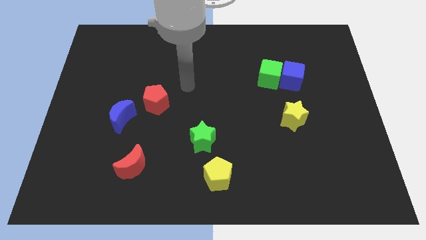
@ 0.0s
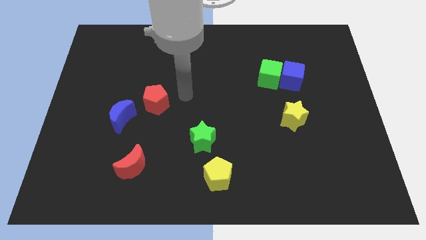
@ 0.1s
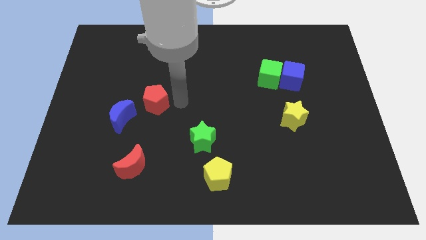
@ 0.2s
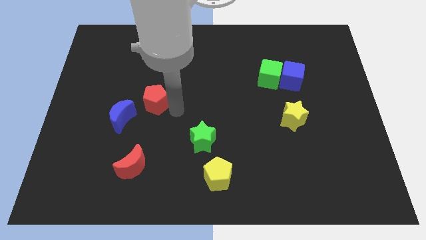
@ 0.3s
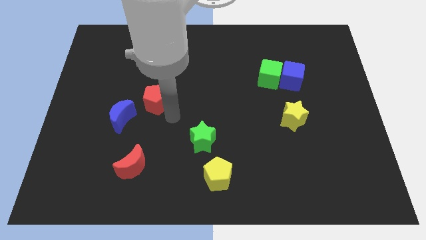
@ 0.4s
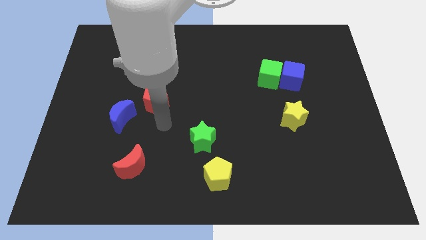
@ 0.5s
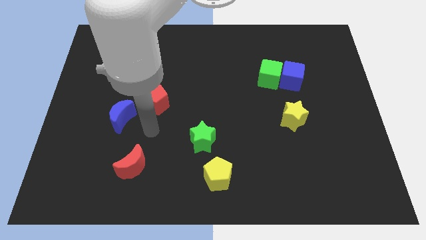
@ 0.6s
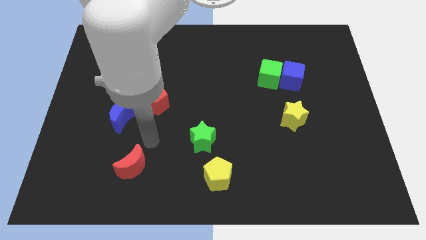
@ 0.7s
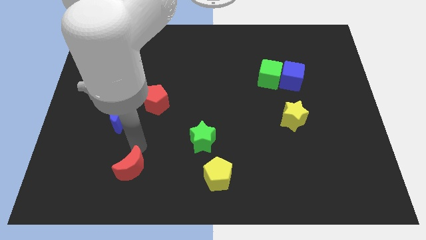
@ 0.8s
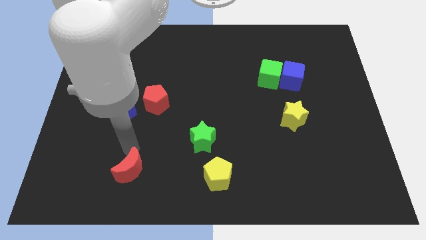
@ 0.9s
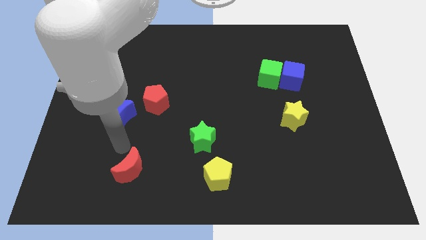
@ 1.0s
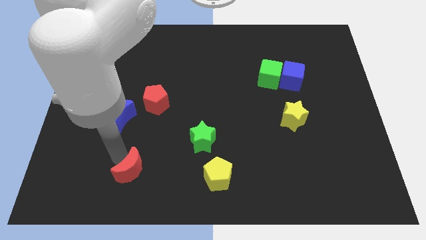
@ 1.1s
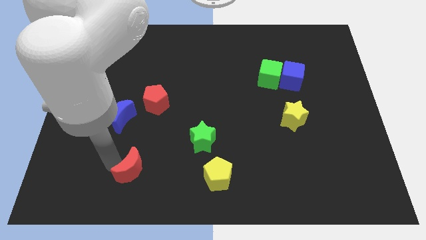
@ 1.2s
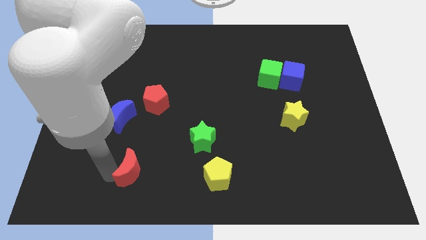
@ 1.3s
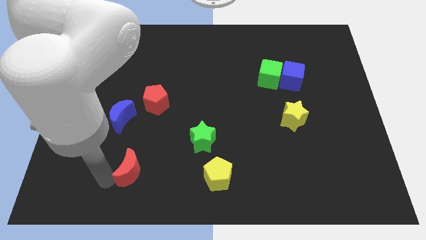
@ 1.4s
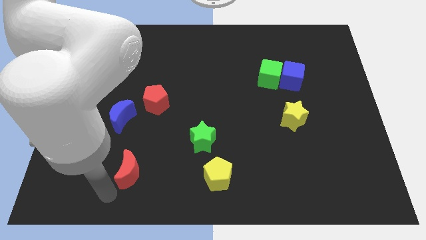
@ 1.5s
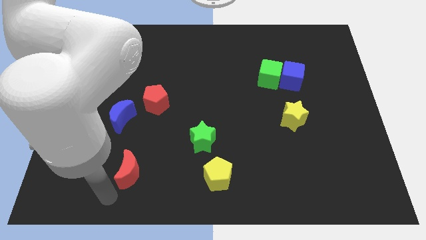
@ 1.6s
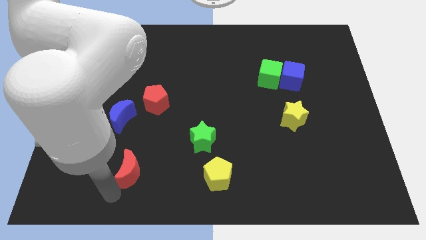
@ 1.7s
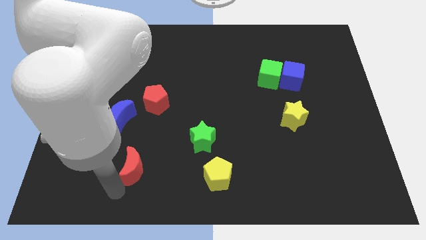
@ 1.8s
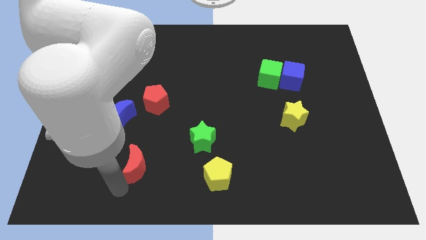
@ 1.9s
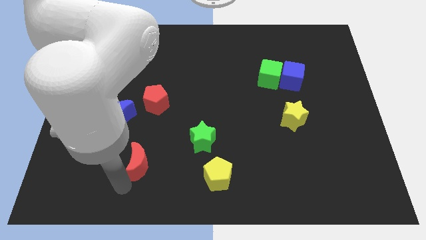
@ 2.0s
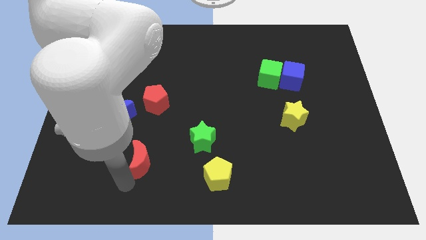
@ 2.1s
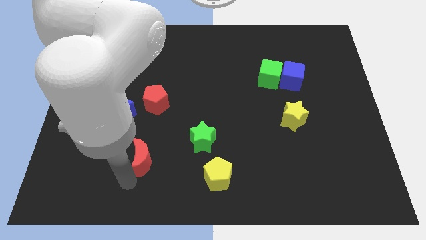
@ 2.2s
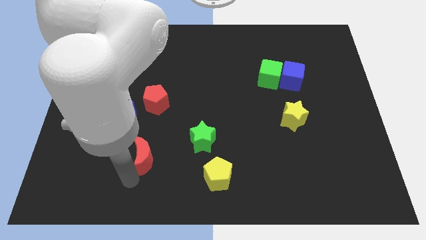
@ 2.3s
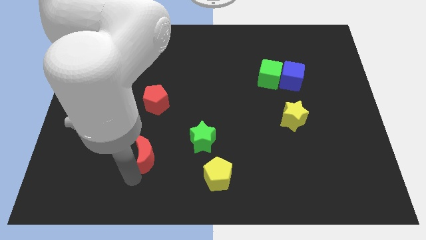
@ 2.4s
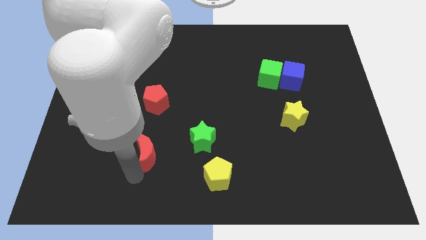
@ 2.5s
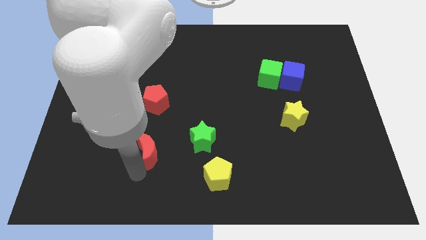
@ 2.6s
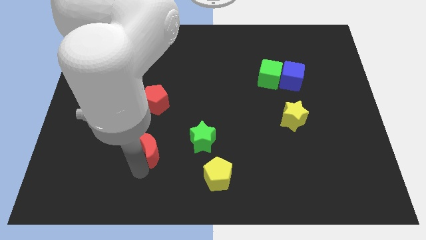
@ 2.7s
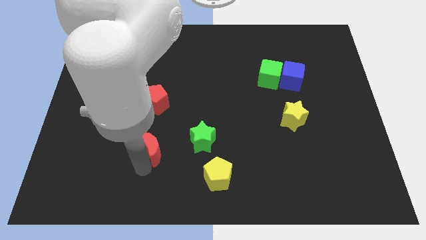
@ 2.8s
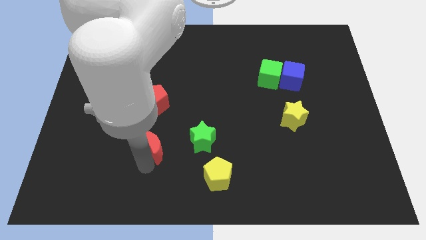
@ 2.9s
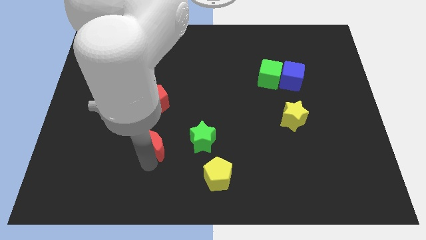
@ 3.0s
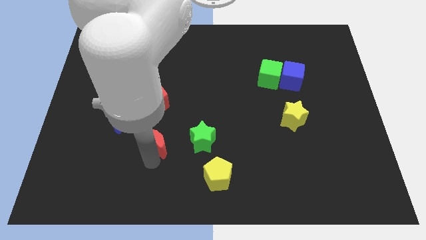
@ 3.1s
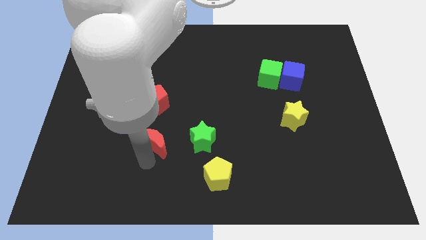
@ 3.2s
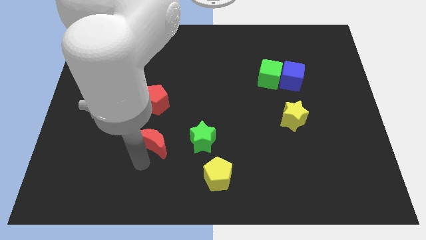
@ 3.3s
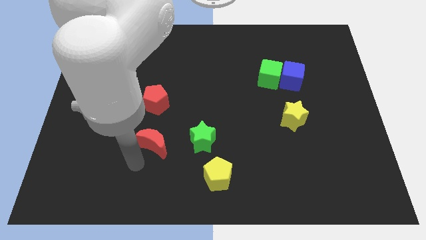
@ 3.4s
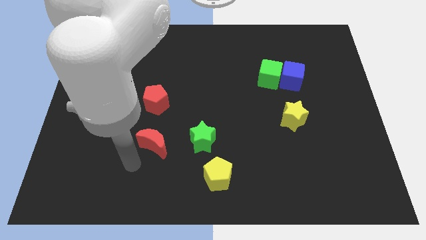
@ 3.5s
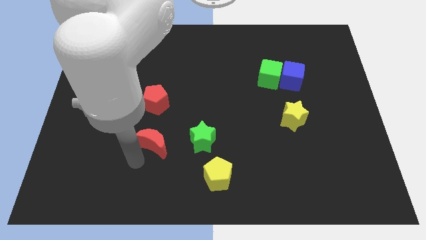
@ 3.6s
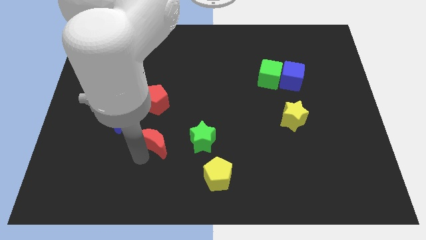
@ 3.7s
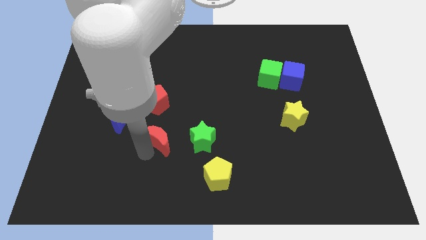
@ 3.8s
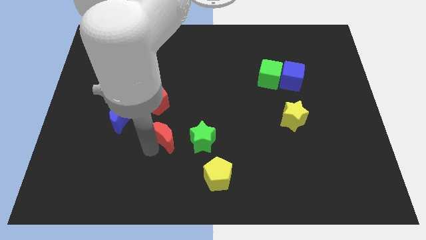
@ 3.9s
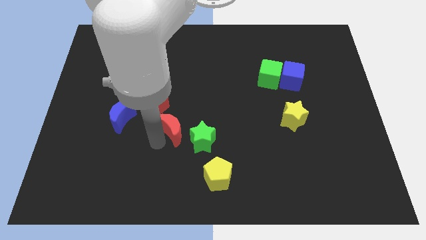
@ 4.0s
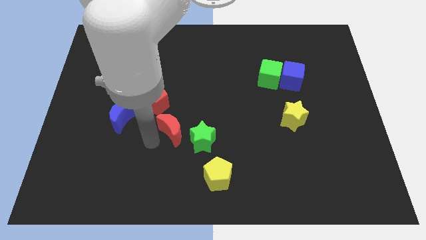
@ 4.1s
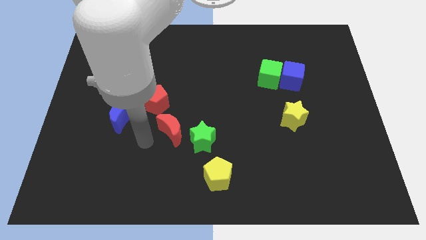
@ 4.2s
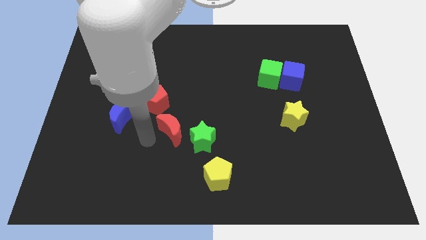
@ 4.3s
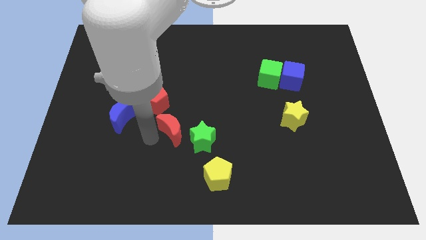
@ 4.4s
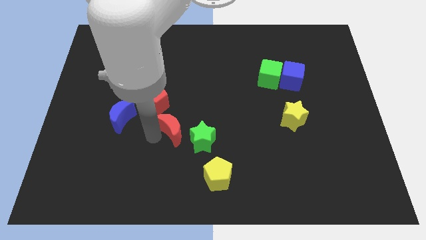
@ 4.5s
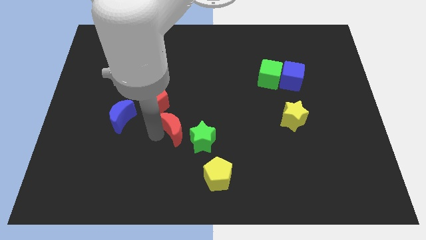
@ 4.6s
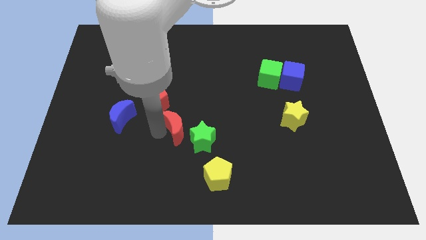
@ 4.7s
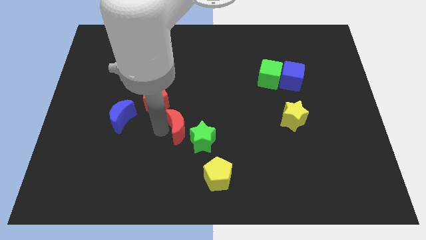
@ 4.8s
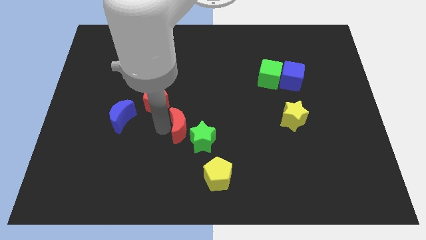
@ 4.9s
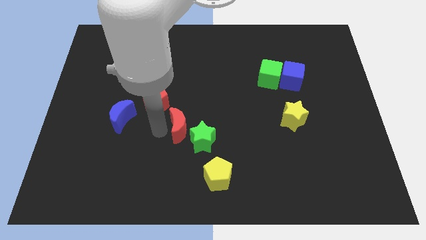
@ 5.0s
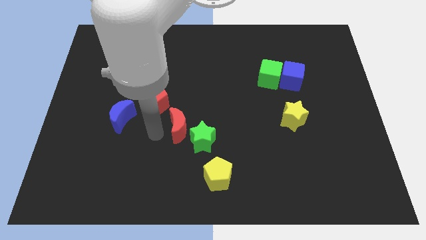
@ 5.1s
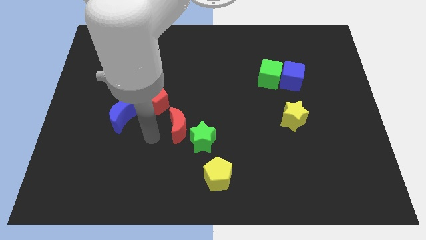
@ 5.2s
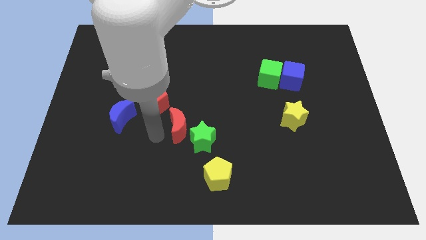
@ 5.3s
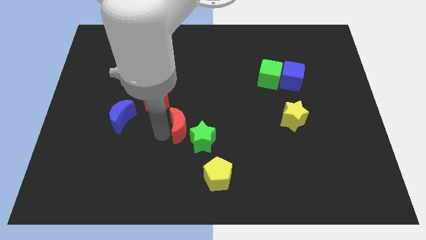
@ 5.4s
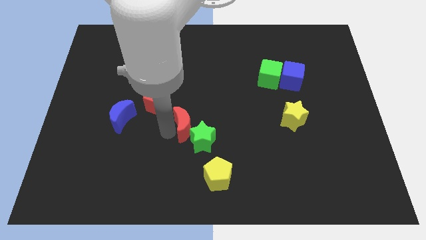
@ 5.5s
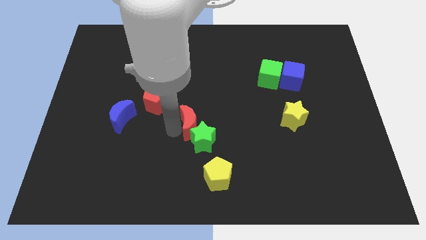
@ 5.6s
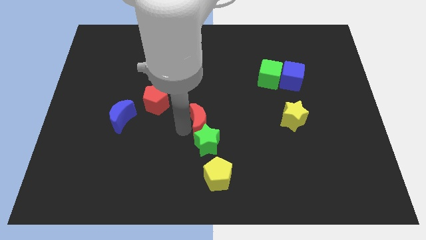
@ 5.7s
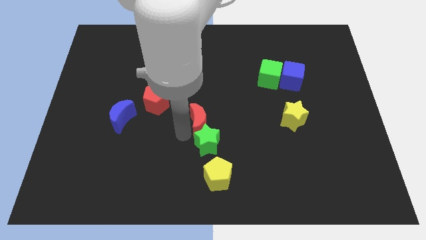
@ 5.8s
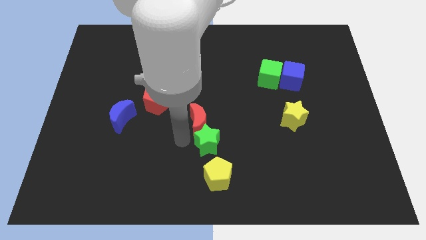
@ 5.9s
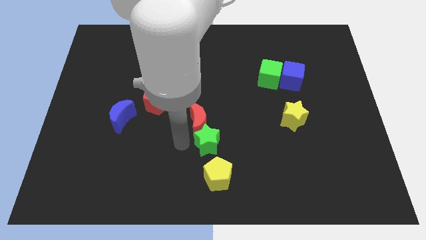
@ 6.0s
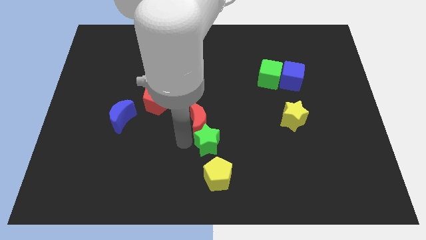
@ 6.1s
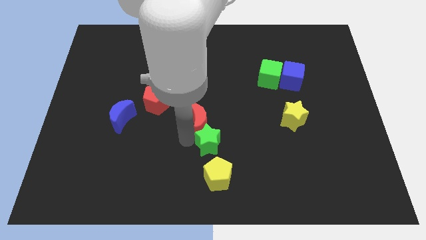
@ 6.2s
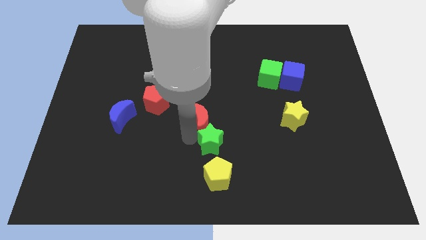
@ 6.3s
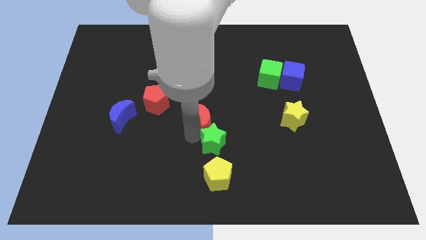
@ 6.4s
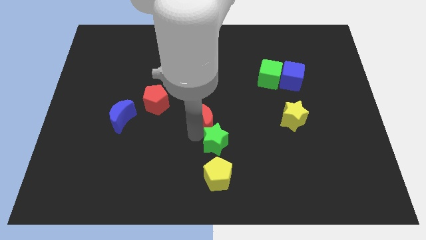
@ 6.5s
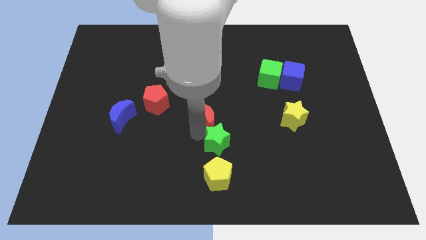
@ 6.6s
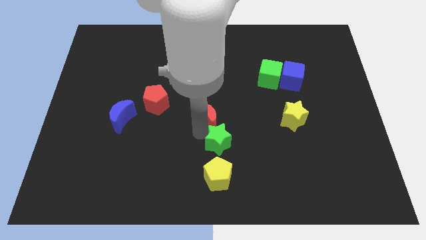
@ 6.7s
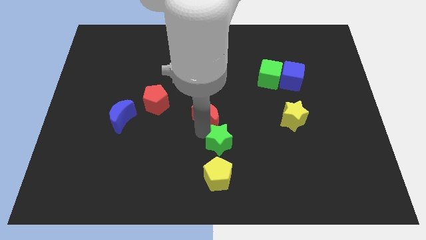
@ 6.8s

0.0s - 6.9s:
move the red moon diagonally upwards and to the right

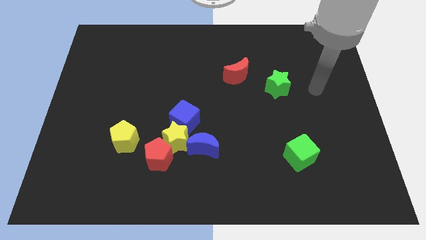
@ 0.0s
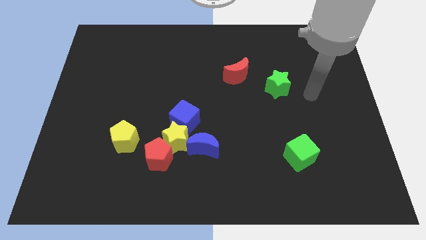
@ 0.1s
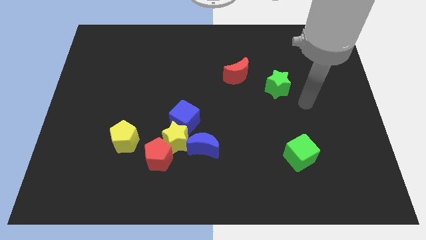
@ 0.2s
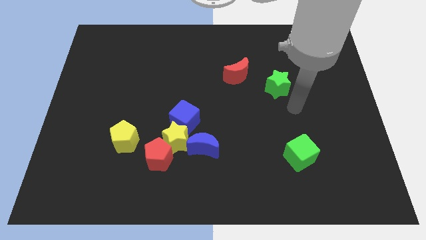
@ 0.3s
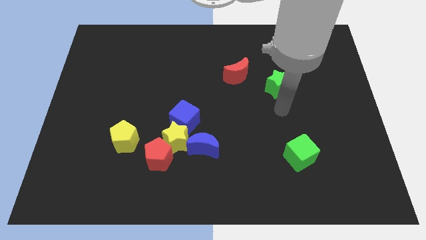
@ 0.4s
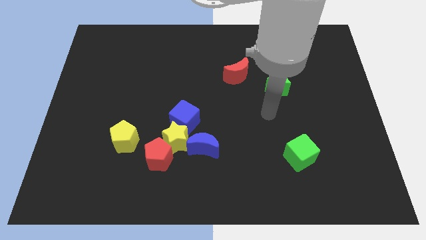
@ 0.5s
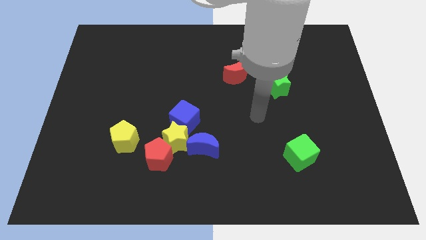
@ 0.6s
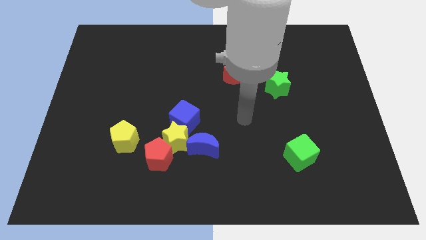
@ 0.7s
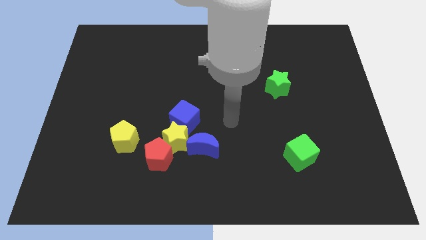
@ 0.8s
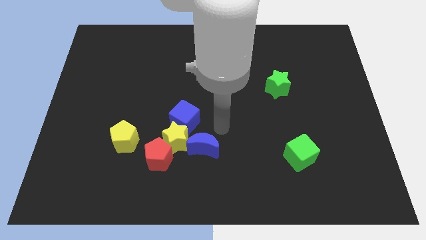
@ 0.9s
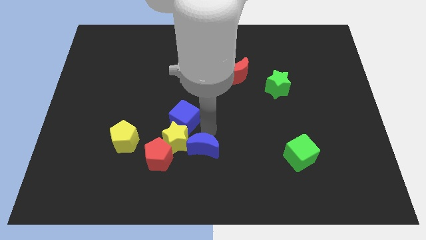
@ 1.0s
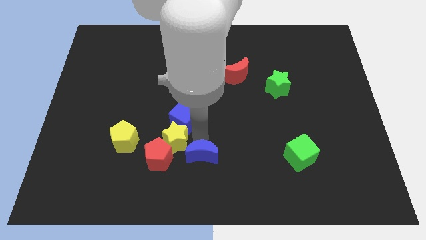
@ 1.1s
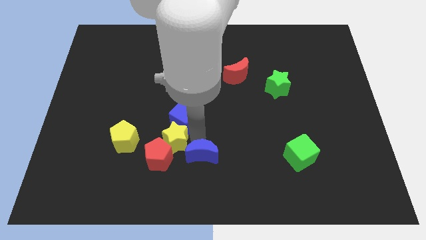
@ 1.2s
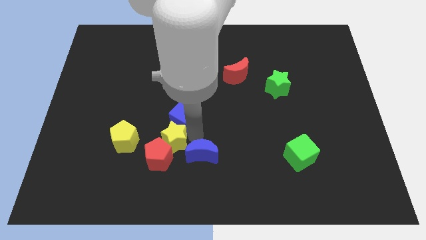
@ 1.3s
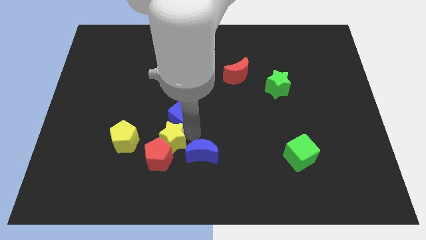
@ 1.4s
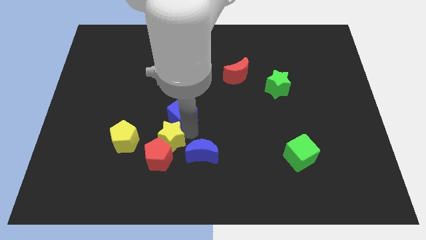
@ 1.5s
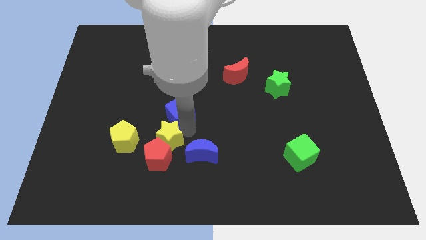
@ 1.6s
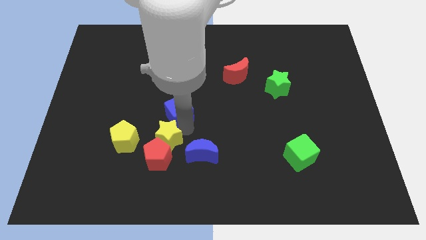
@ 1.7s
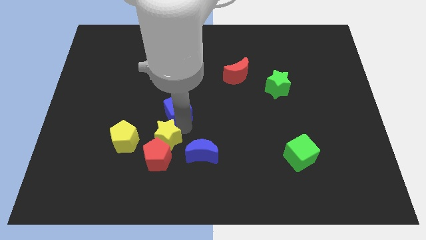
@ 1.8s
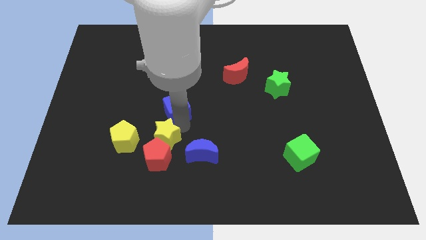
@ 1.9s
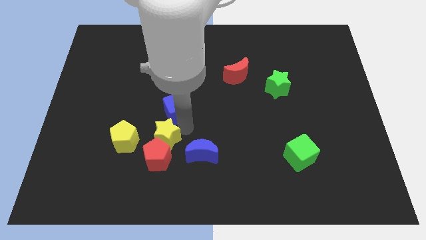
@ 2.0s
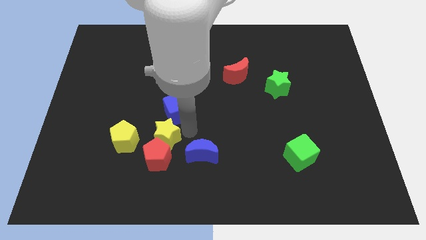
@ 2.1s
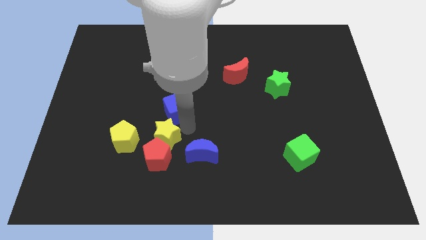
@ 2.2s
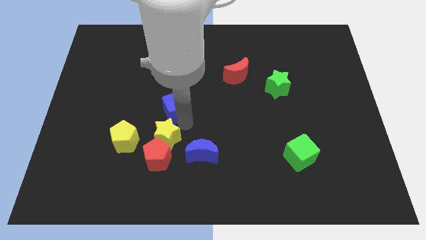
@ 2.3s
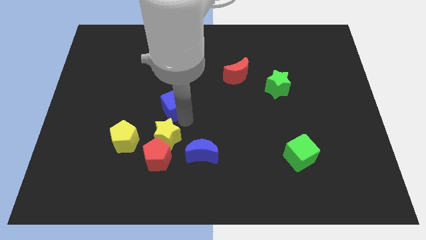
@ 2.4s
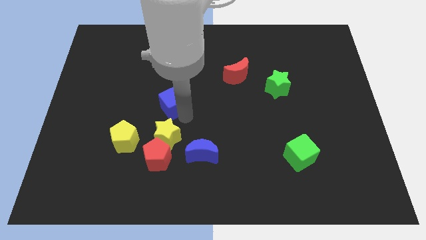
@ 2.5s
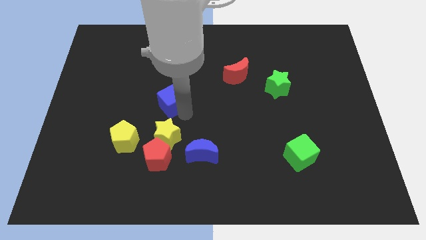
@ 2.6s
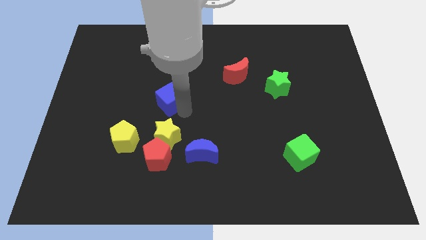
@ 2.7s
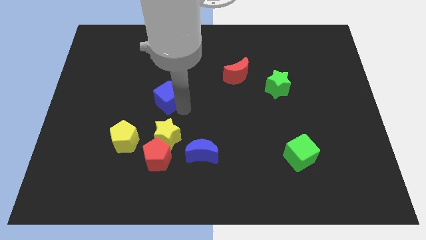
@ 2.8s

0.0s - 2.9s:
push the blue cube upwards and then to the left a bit
